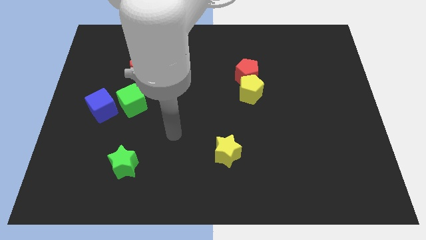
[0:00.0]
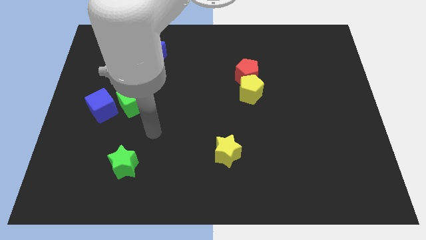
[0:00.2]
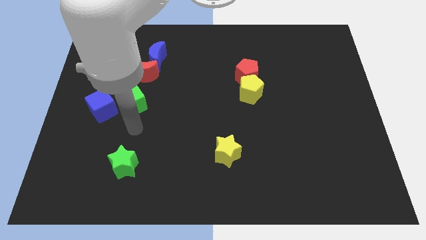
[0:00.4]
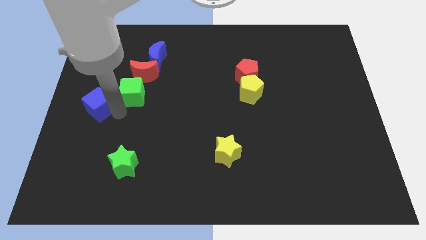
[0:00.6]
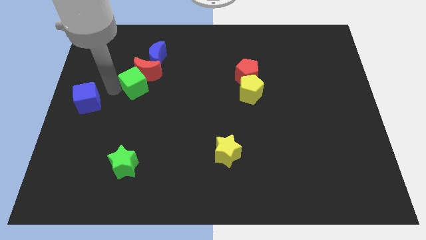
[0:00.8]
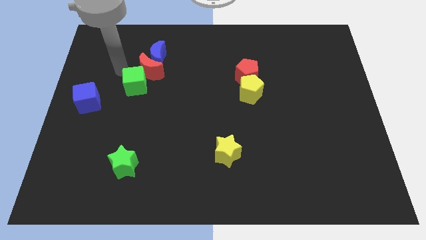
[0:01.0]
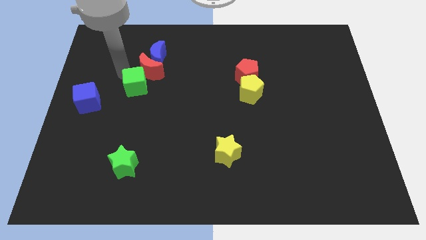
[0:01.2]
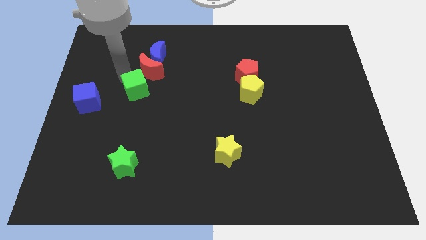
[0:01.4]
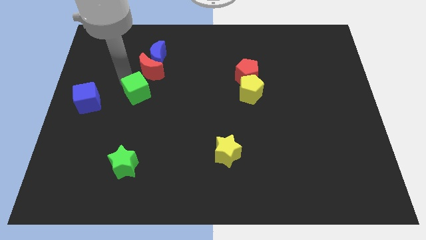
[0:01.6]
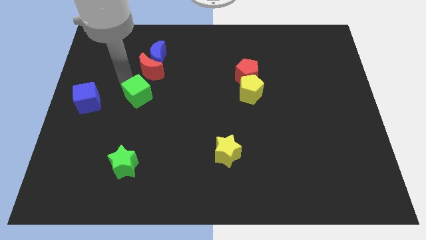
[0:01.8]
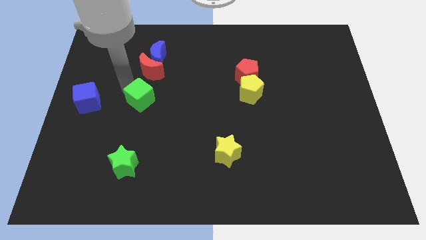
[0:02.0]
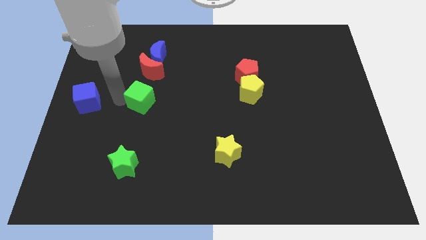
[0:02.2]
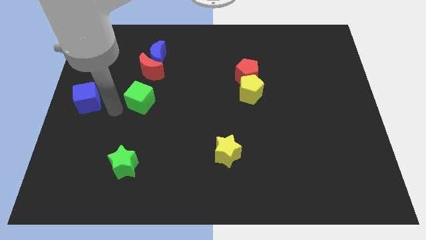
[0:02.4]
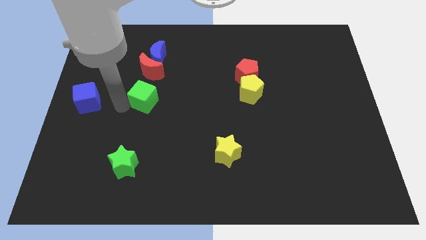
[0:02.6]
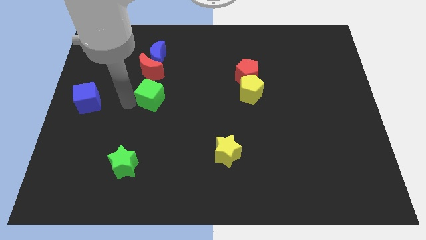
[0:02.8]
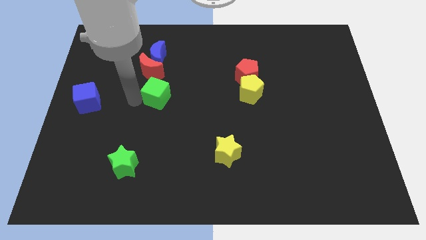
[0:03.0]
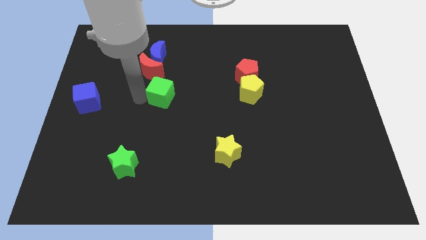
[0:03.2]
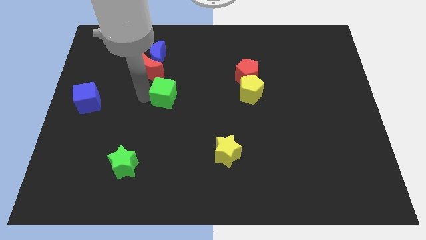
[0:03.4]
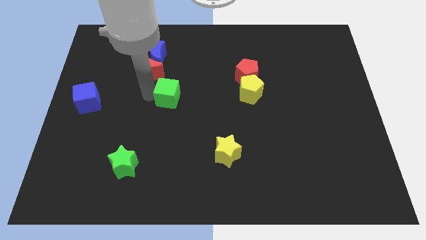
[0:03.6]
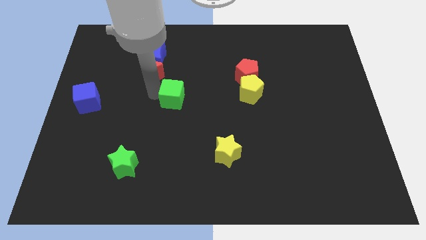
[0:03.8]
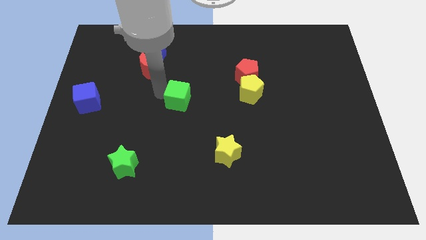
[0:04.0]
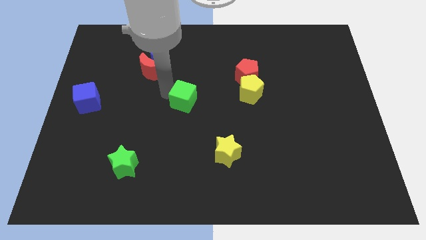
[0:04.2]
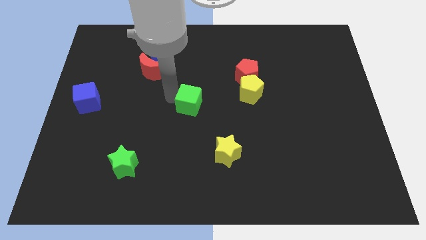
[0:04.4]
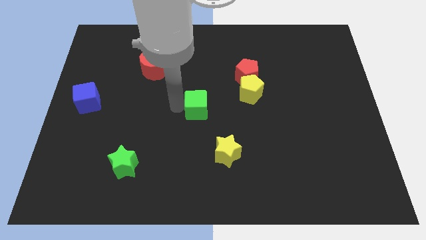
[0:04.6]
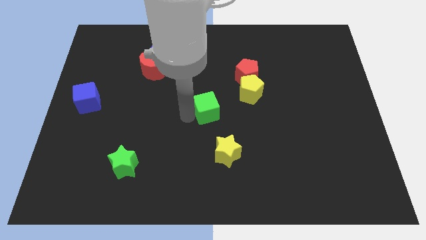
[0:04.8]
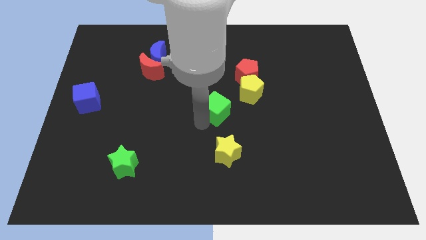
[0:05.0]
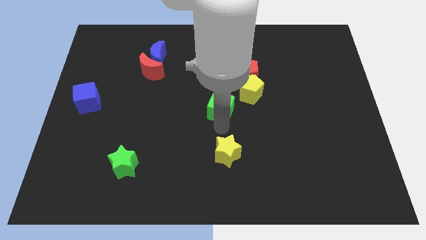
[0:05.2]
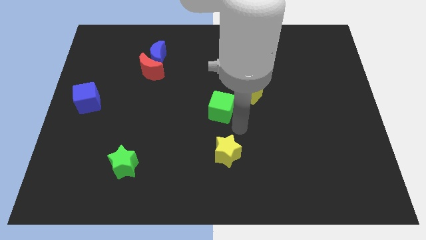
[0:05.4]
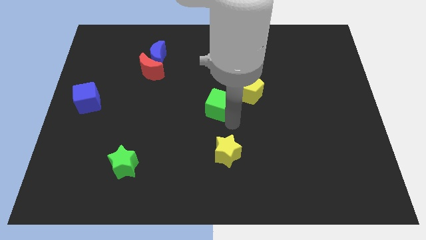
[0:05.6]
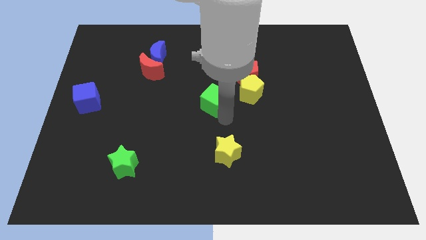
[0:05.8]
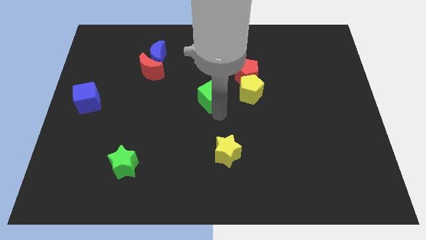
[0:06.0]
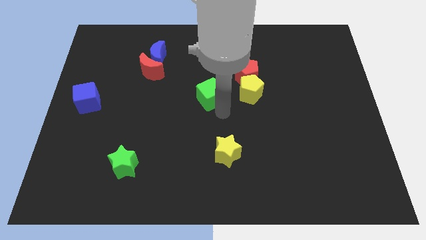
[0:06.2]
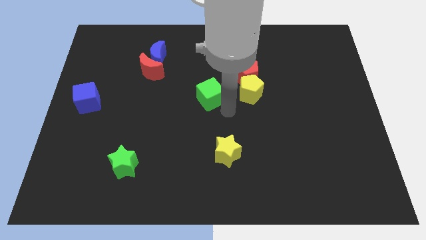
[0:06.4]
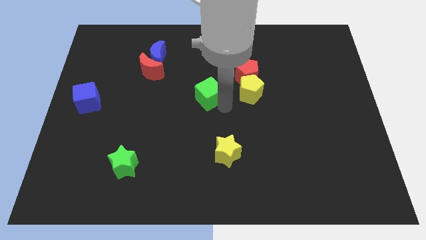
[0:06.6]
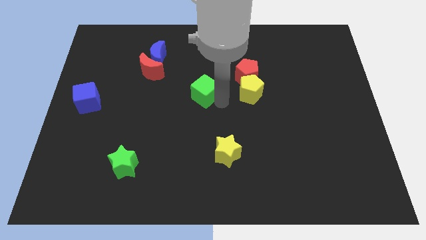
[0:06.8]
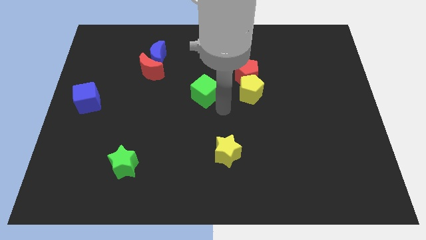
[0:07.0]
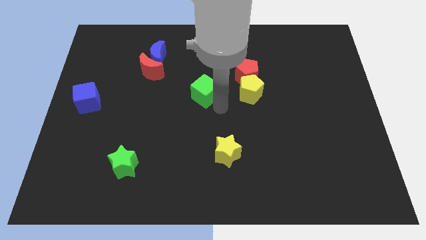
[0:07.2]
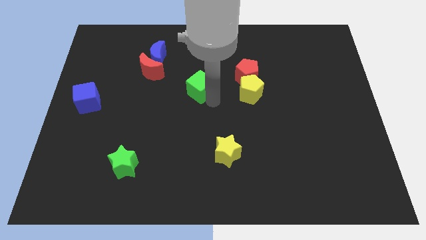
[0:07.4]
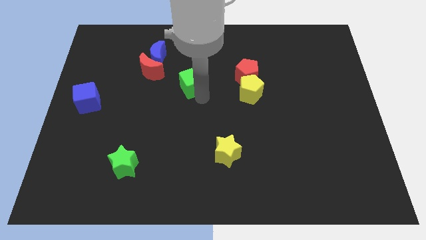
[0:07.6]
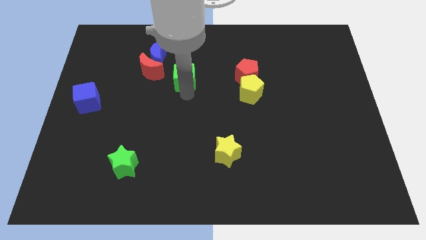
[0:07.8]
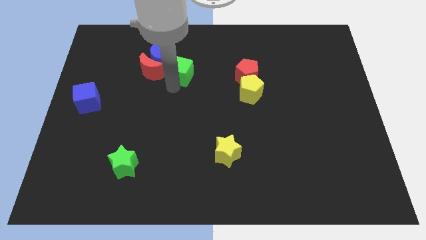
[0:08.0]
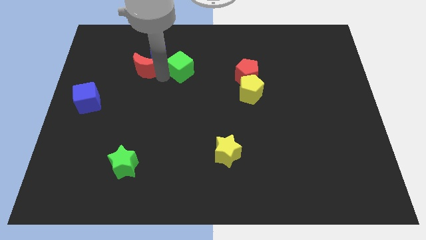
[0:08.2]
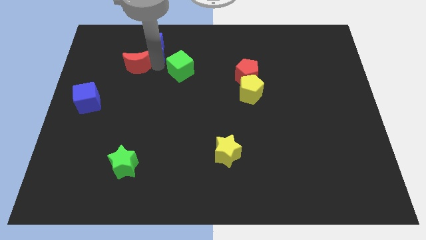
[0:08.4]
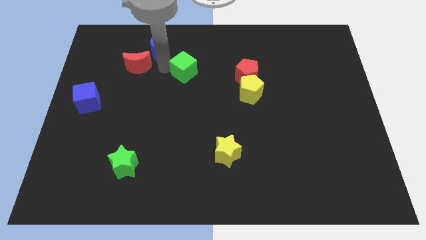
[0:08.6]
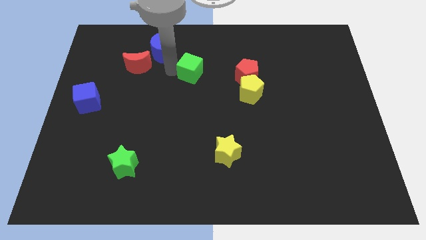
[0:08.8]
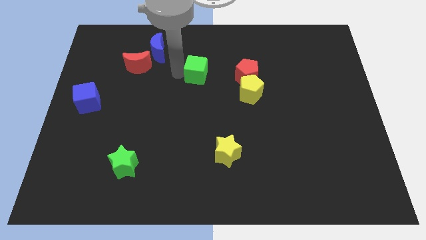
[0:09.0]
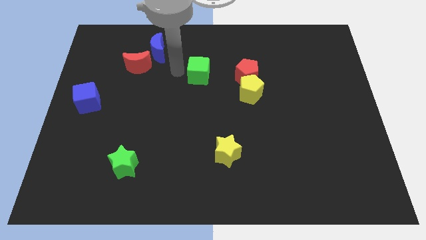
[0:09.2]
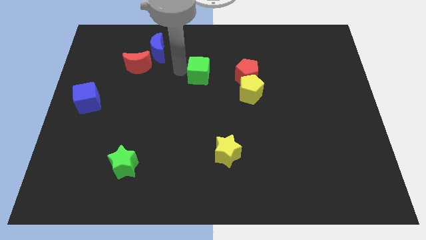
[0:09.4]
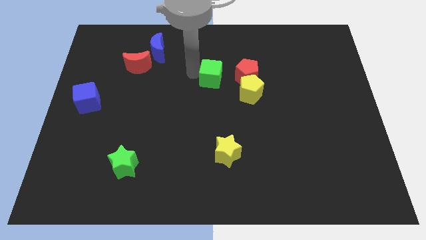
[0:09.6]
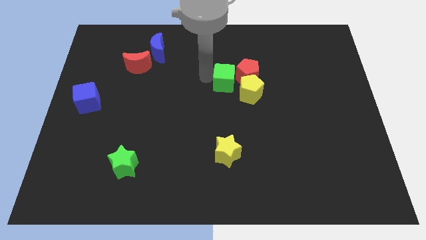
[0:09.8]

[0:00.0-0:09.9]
put the green cube to the red pentagon

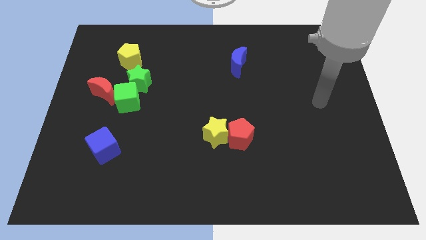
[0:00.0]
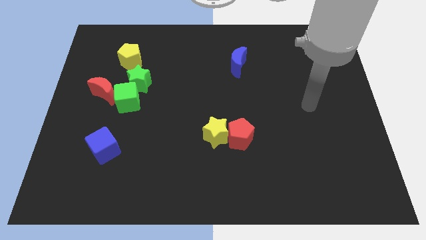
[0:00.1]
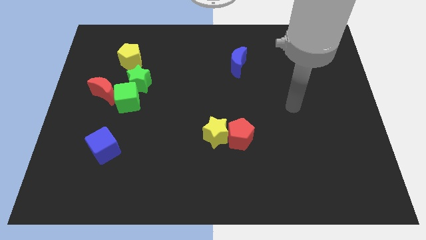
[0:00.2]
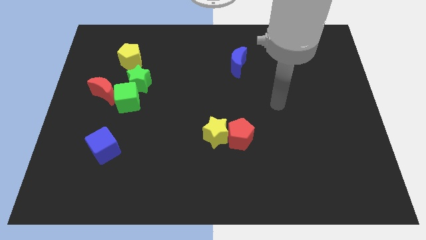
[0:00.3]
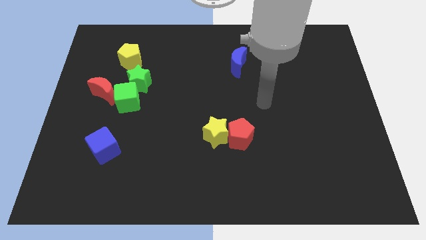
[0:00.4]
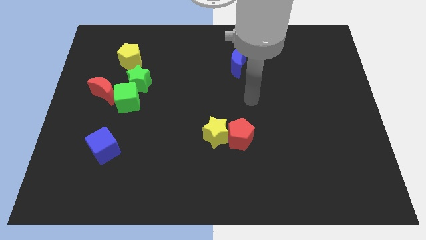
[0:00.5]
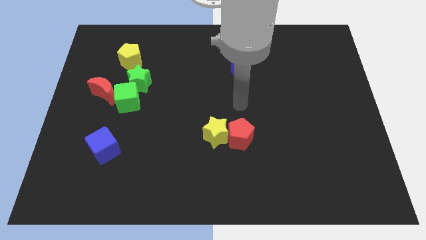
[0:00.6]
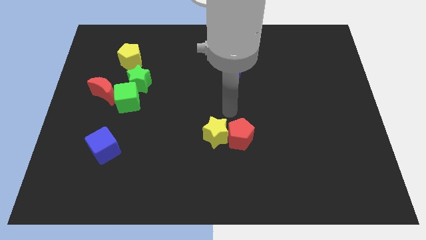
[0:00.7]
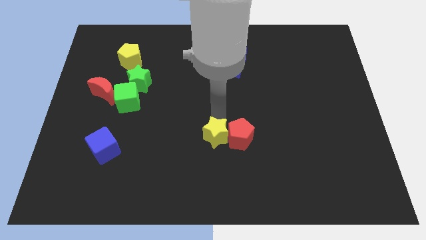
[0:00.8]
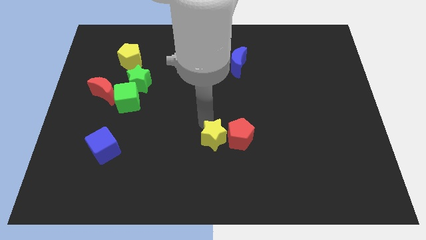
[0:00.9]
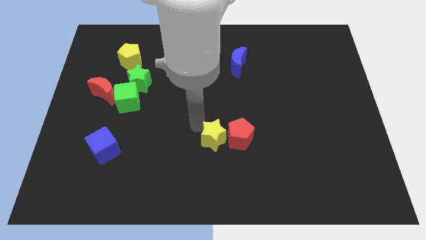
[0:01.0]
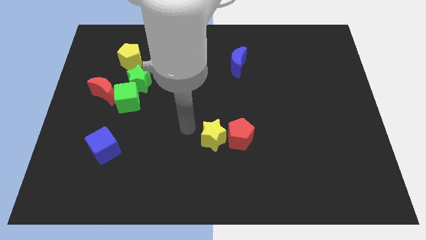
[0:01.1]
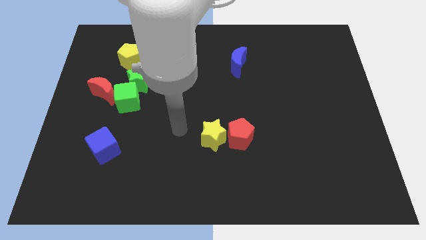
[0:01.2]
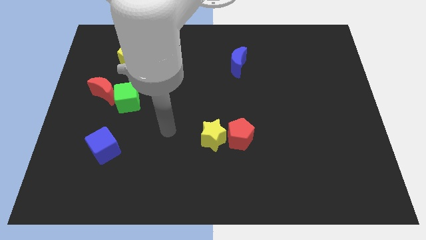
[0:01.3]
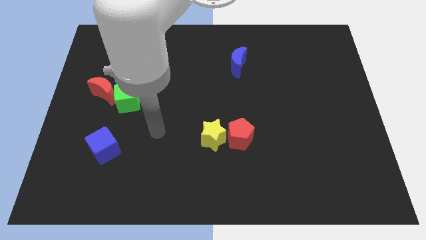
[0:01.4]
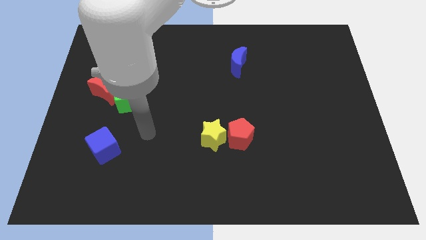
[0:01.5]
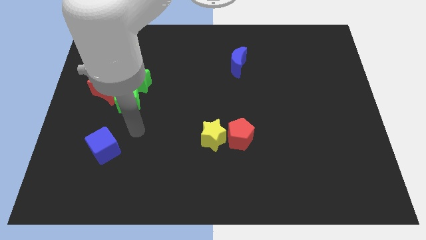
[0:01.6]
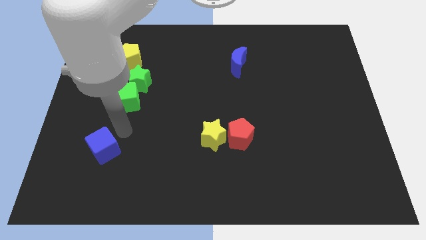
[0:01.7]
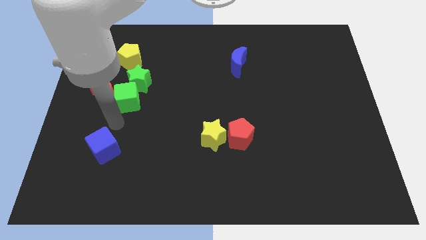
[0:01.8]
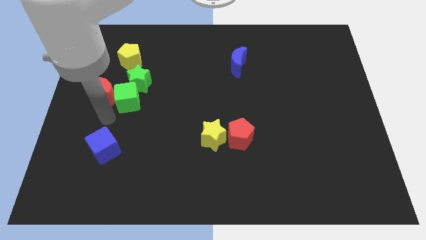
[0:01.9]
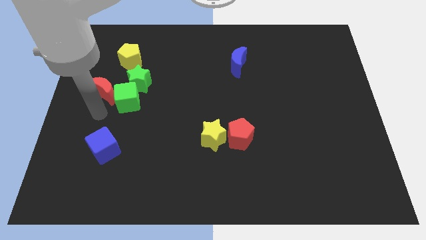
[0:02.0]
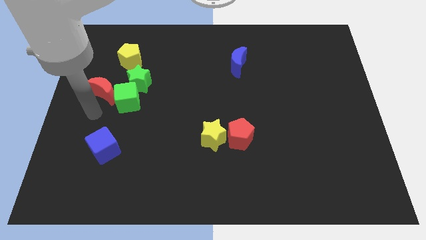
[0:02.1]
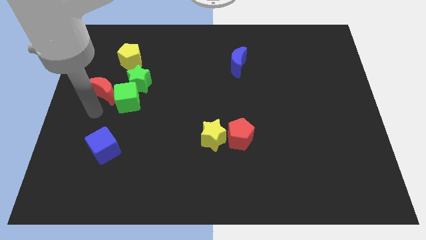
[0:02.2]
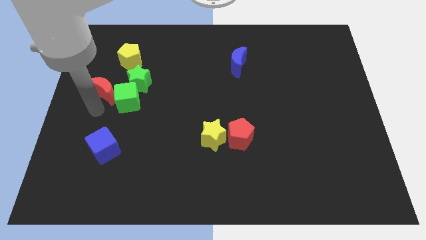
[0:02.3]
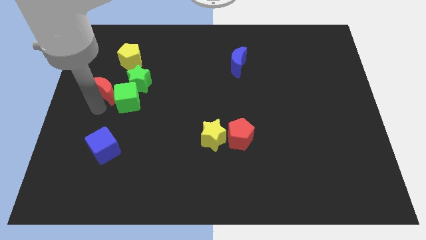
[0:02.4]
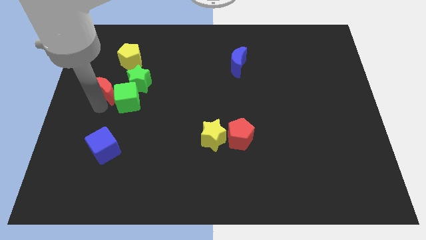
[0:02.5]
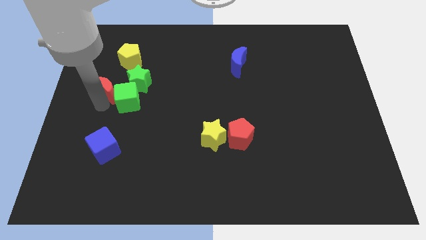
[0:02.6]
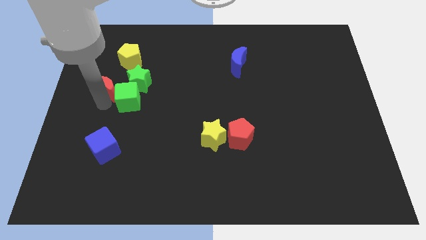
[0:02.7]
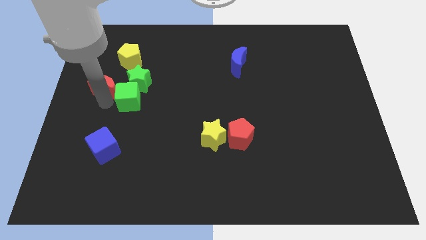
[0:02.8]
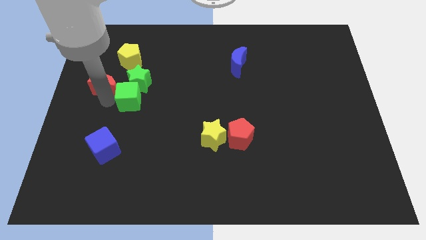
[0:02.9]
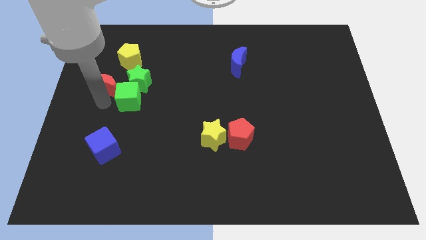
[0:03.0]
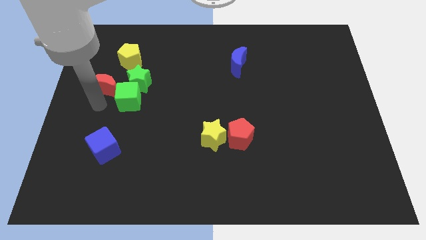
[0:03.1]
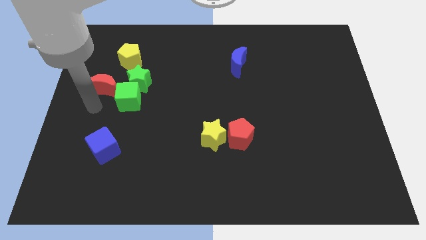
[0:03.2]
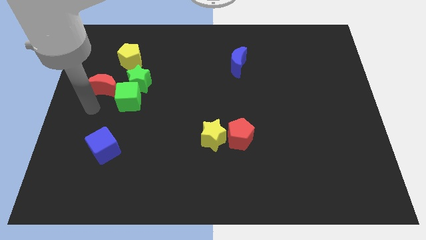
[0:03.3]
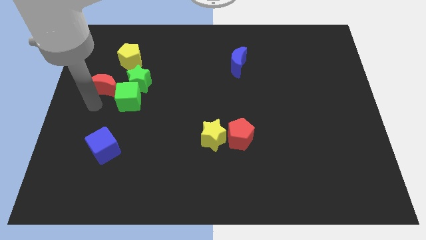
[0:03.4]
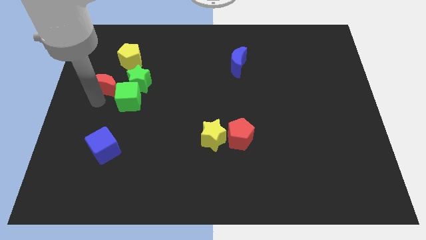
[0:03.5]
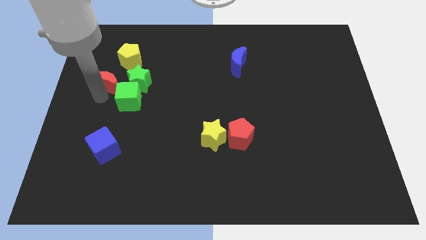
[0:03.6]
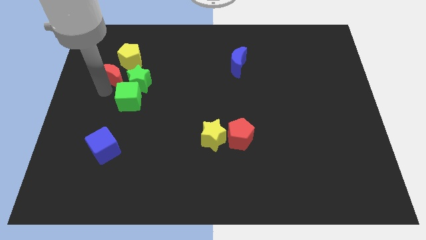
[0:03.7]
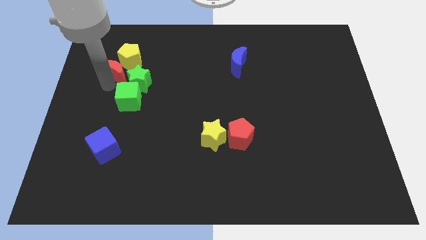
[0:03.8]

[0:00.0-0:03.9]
move the red moon next to the yellow pentagon
